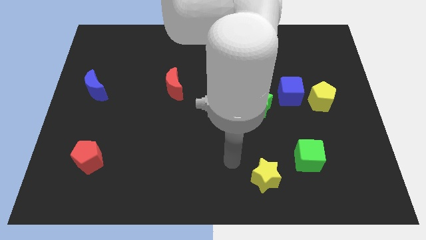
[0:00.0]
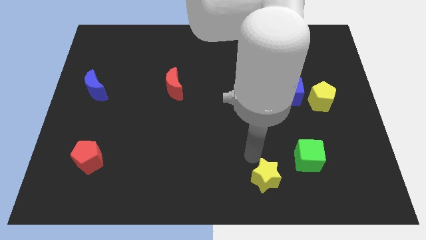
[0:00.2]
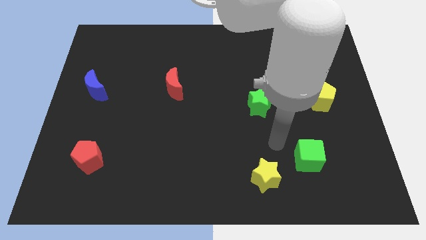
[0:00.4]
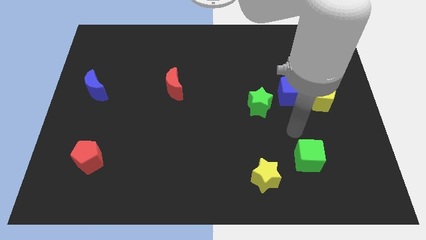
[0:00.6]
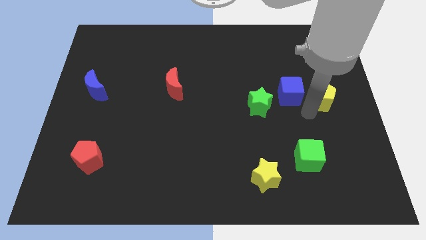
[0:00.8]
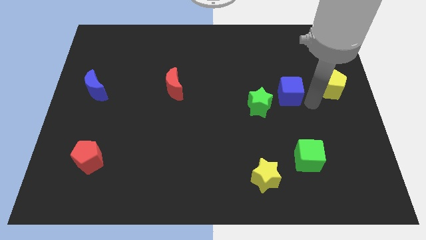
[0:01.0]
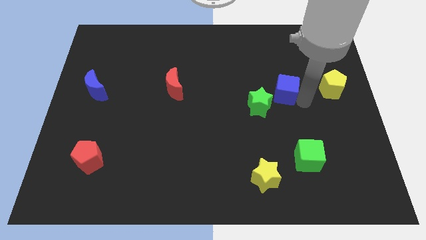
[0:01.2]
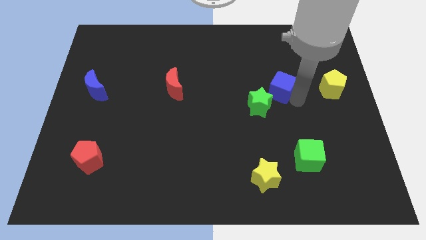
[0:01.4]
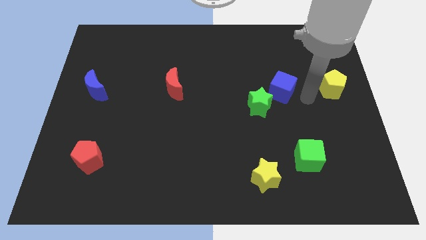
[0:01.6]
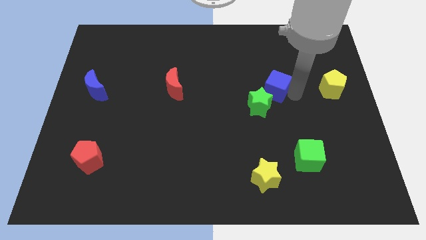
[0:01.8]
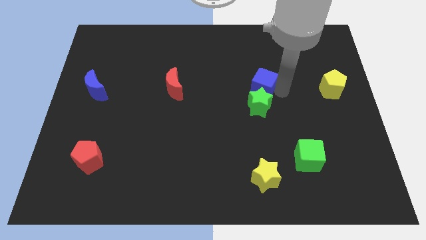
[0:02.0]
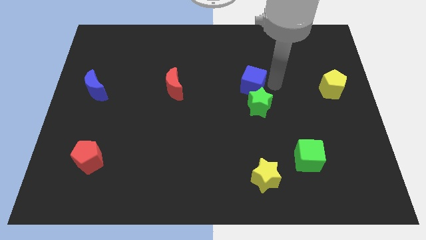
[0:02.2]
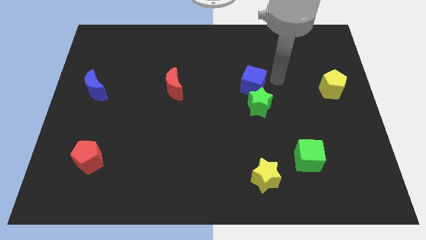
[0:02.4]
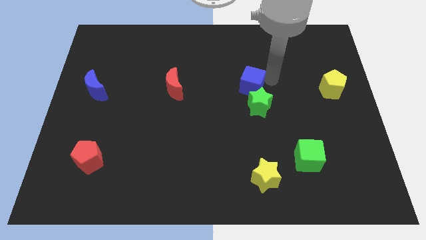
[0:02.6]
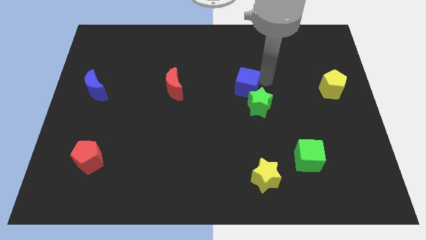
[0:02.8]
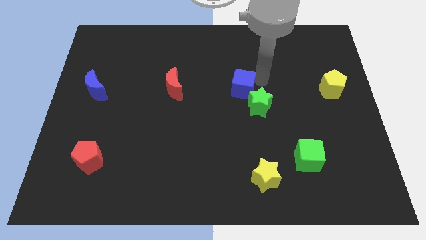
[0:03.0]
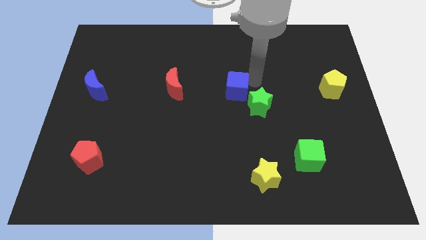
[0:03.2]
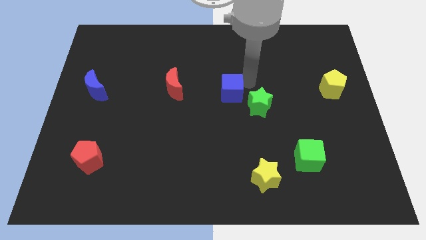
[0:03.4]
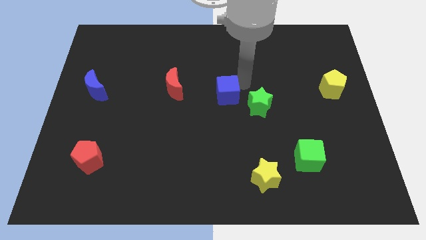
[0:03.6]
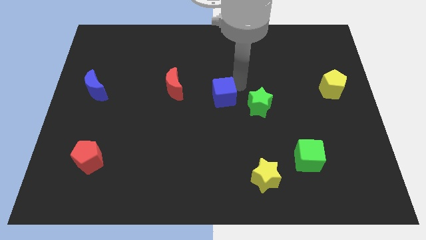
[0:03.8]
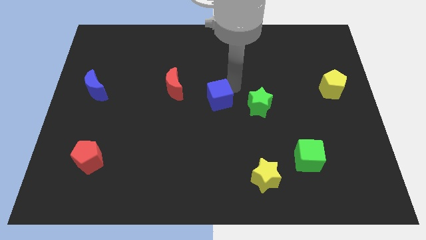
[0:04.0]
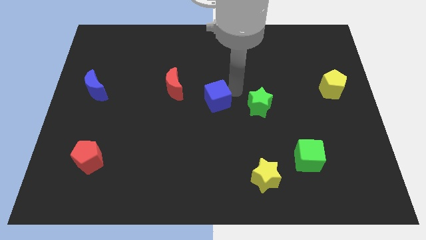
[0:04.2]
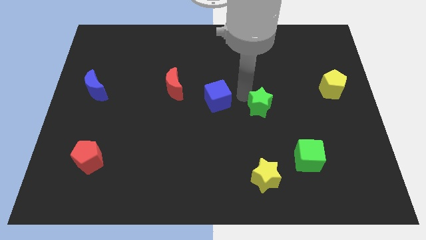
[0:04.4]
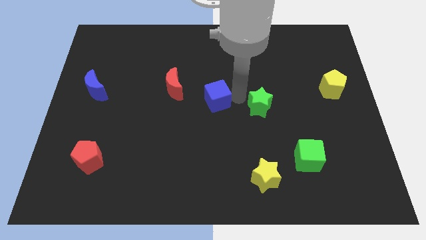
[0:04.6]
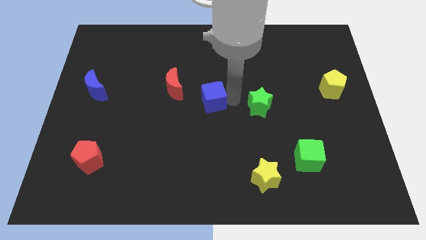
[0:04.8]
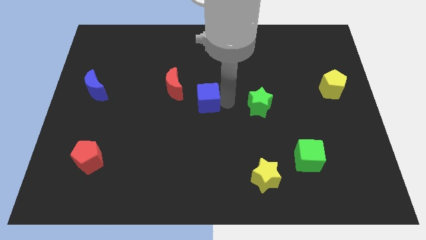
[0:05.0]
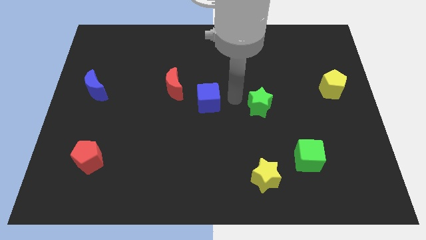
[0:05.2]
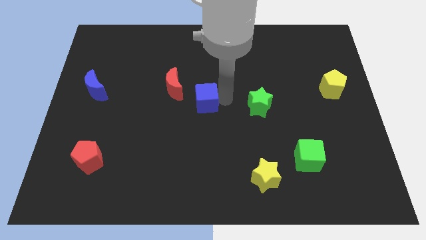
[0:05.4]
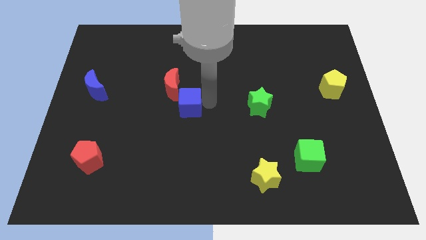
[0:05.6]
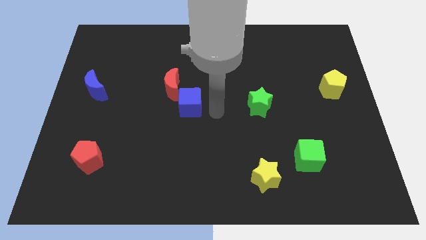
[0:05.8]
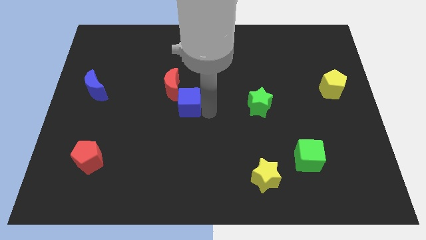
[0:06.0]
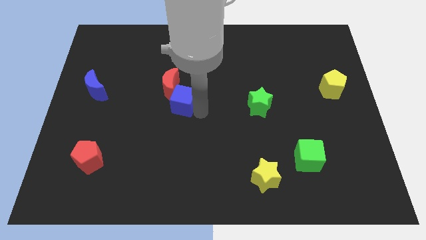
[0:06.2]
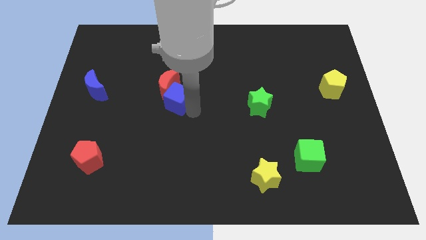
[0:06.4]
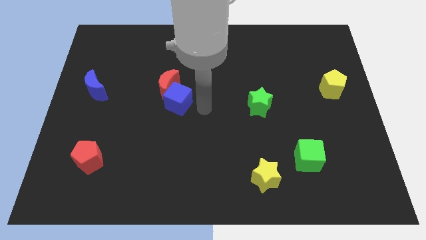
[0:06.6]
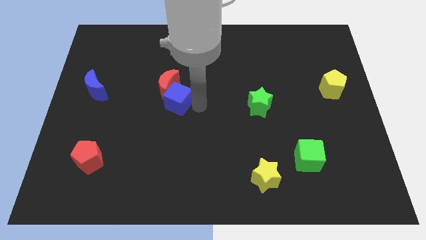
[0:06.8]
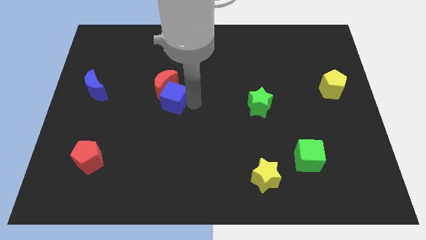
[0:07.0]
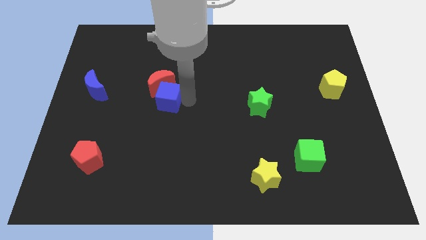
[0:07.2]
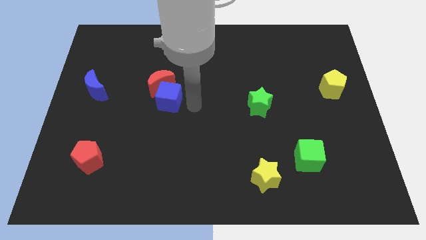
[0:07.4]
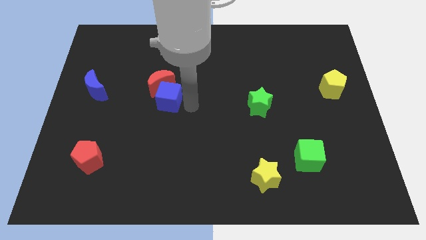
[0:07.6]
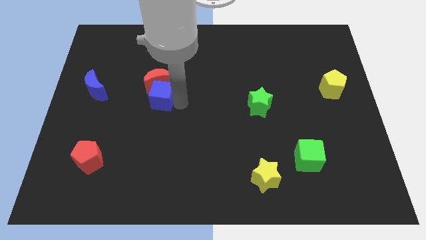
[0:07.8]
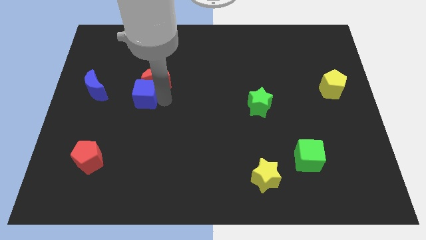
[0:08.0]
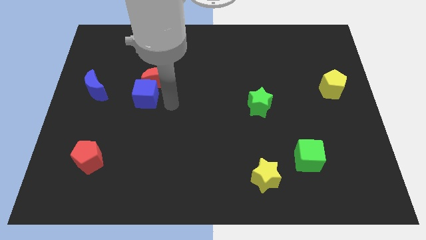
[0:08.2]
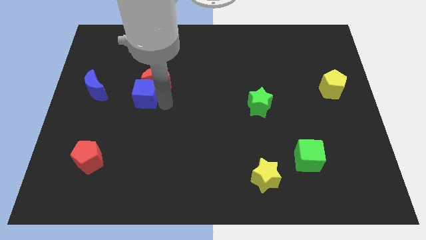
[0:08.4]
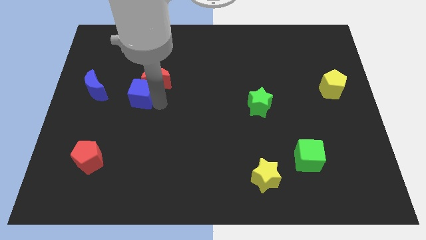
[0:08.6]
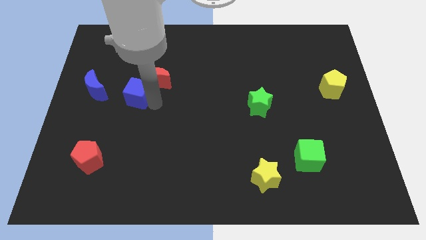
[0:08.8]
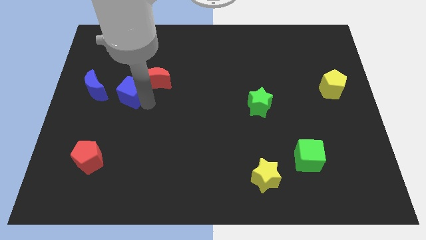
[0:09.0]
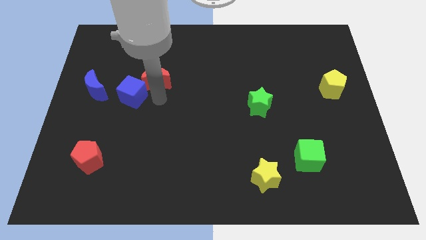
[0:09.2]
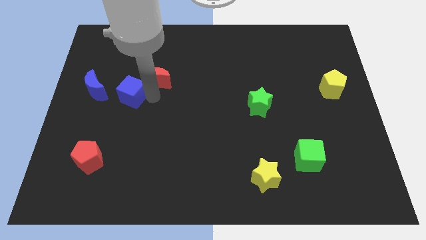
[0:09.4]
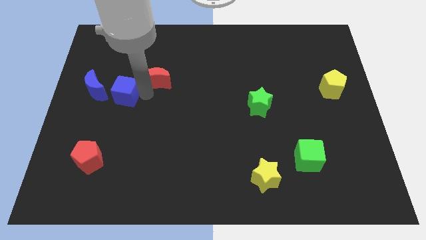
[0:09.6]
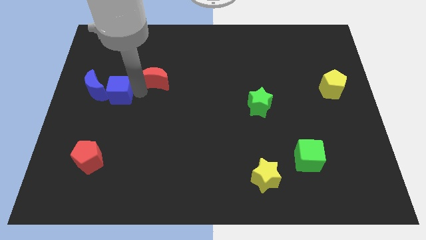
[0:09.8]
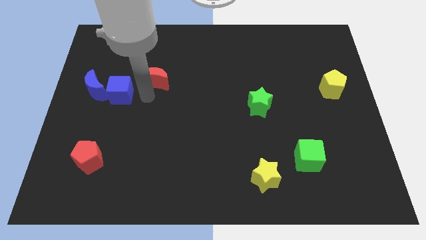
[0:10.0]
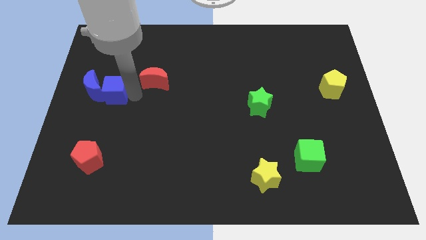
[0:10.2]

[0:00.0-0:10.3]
put the blue cube next to the blue moon

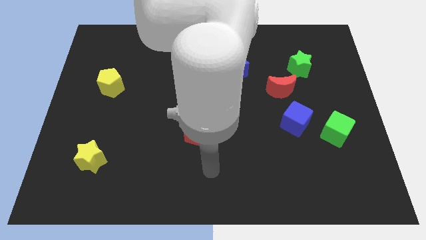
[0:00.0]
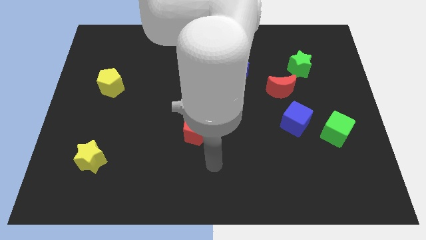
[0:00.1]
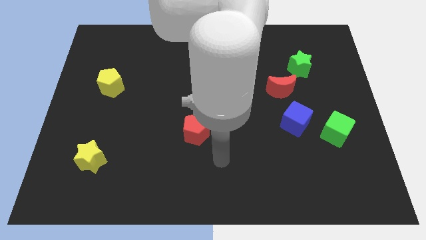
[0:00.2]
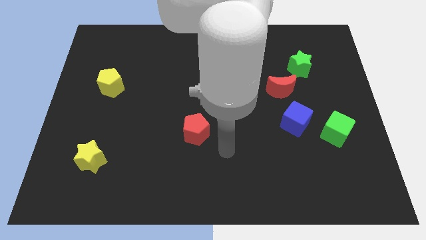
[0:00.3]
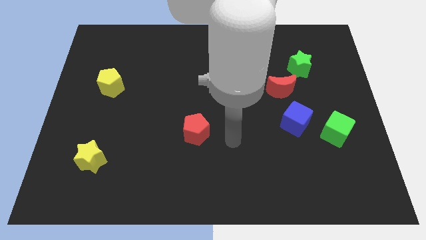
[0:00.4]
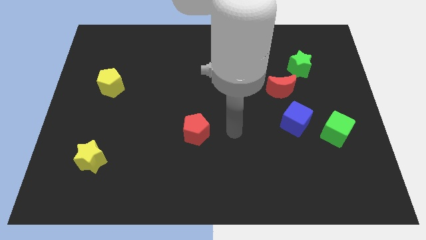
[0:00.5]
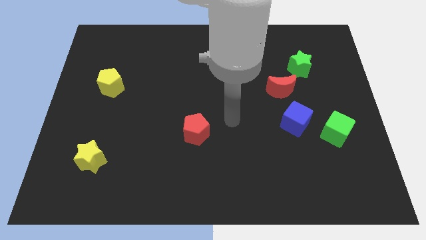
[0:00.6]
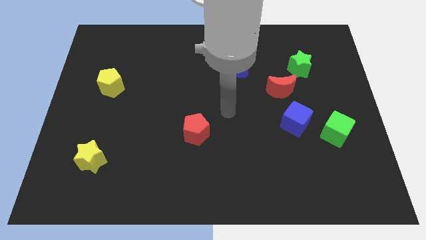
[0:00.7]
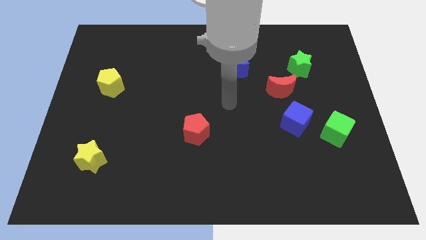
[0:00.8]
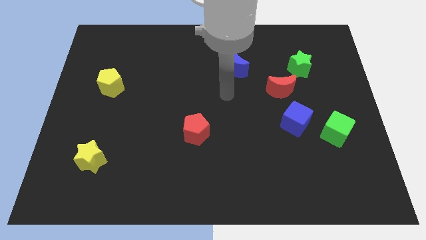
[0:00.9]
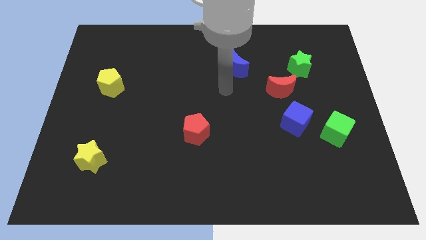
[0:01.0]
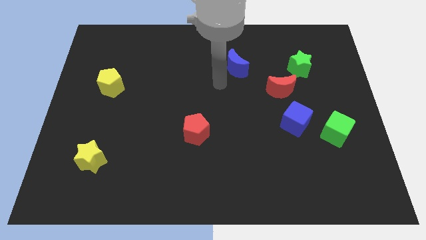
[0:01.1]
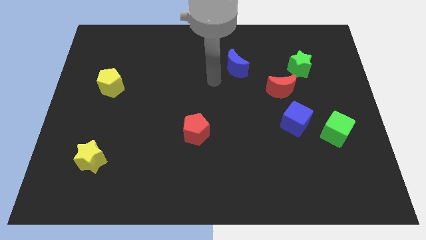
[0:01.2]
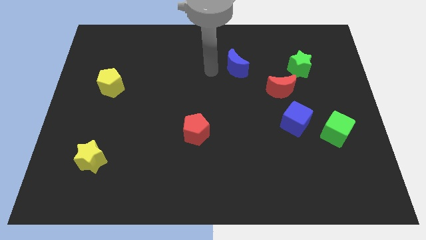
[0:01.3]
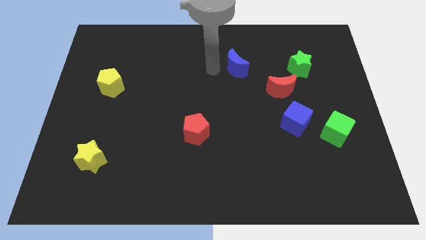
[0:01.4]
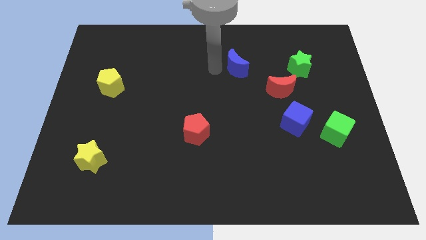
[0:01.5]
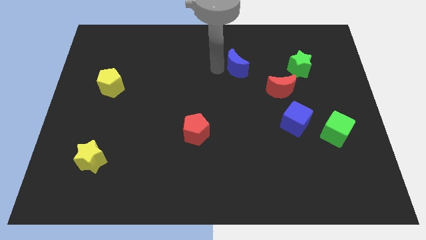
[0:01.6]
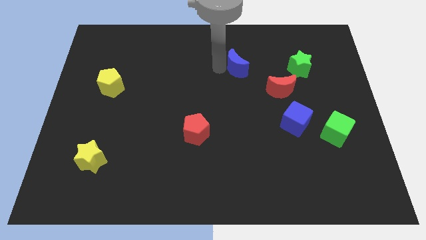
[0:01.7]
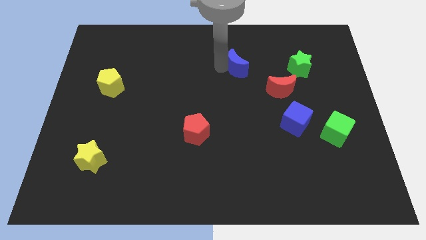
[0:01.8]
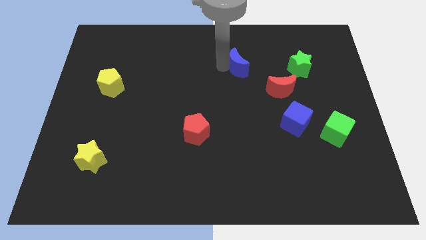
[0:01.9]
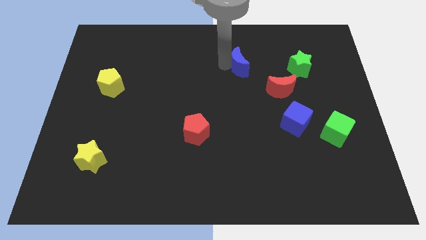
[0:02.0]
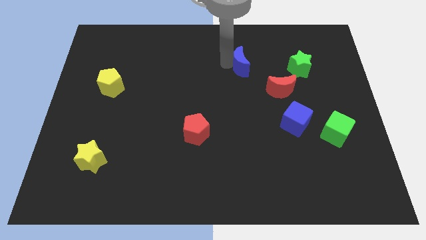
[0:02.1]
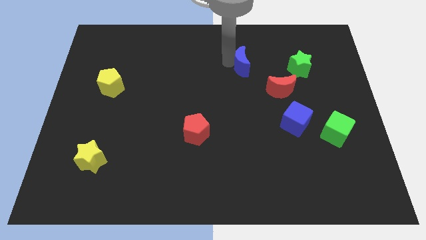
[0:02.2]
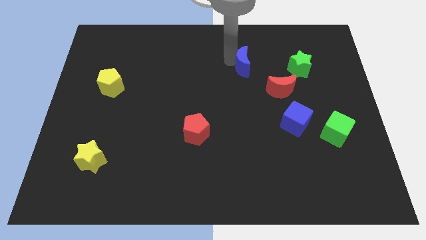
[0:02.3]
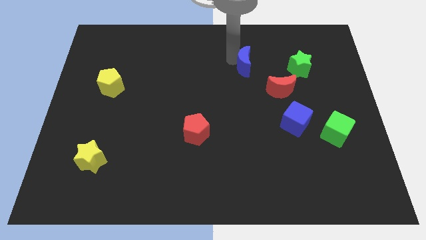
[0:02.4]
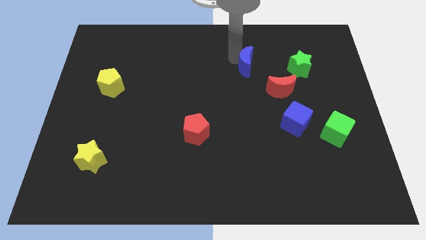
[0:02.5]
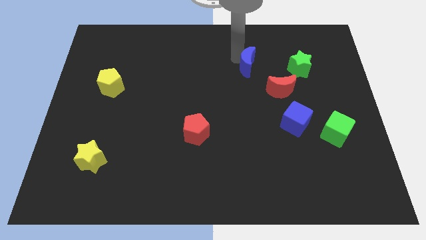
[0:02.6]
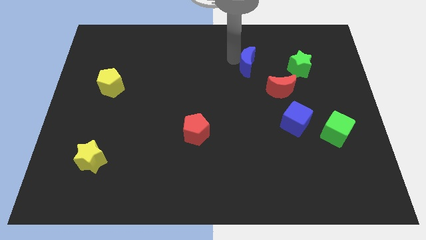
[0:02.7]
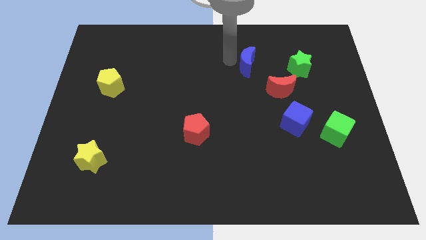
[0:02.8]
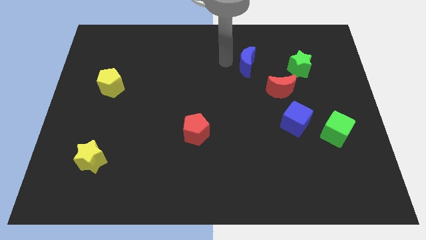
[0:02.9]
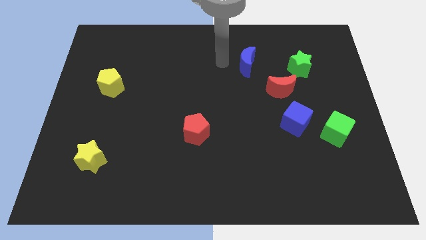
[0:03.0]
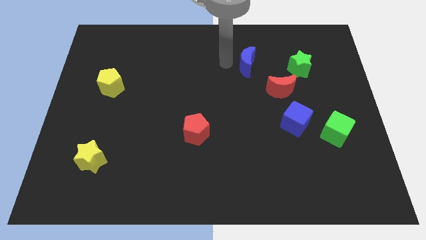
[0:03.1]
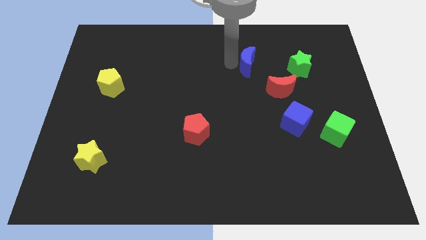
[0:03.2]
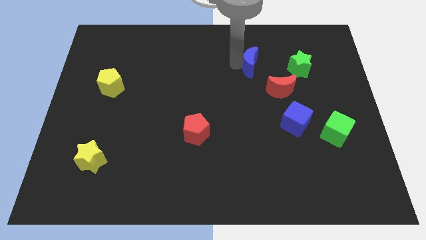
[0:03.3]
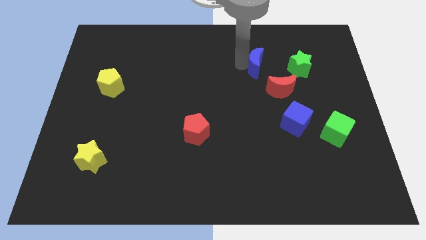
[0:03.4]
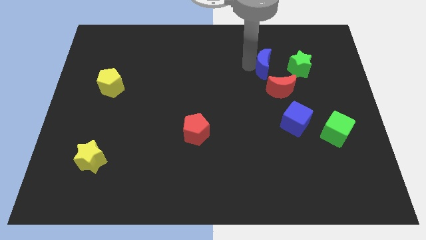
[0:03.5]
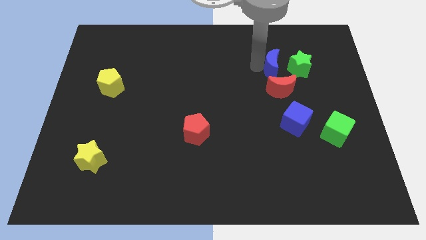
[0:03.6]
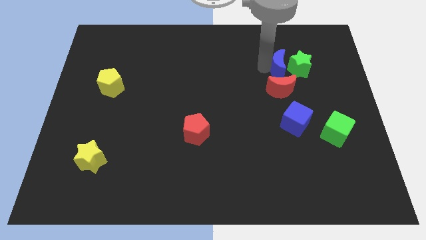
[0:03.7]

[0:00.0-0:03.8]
move the blue moon to the green star
